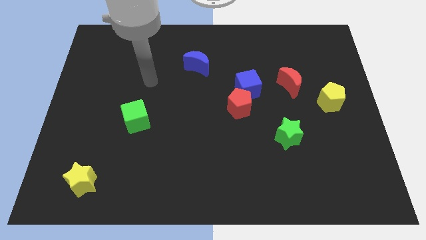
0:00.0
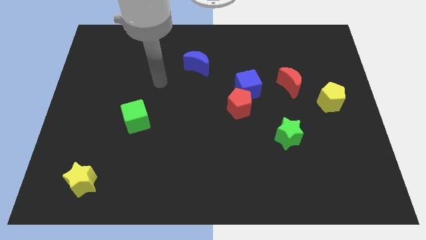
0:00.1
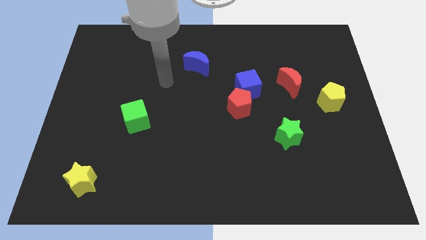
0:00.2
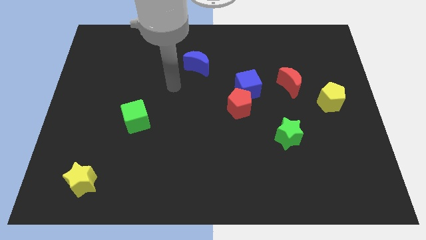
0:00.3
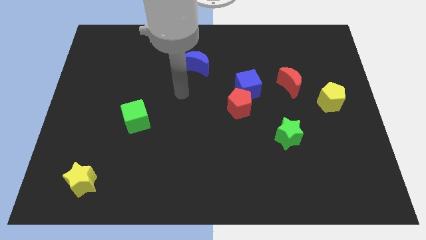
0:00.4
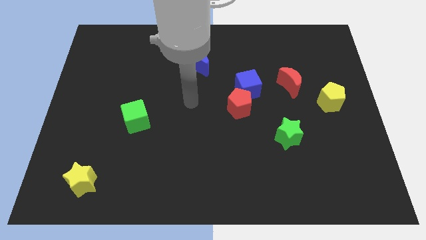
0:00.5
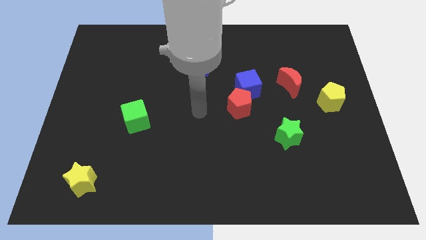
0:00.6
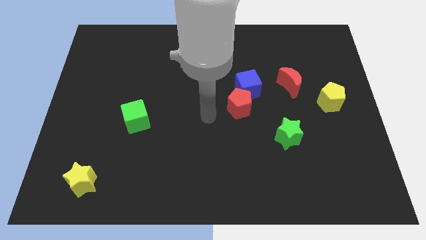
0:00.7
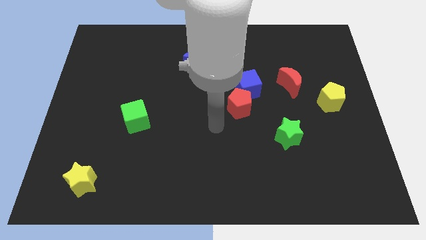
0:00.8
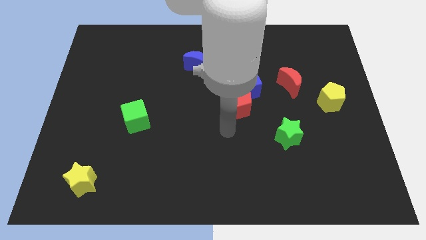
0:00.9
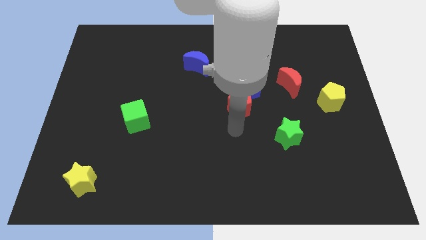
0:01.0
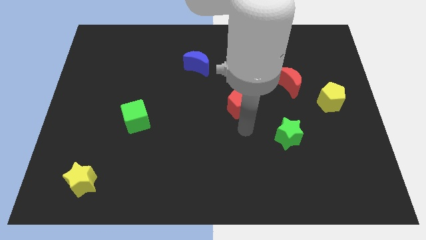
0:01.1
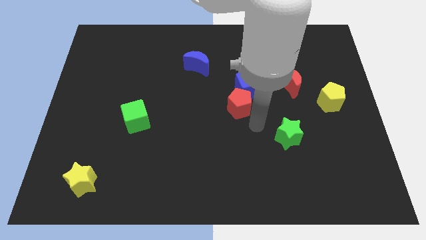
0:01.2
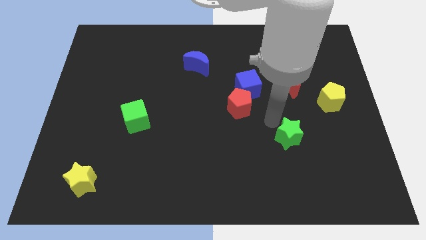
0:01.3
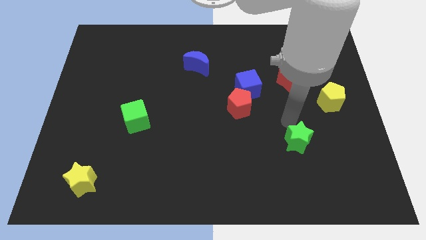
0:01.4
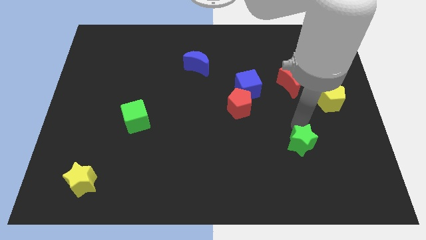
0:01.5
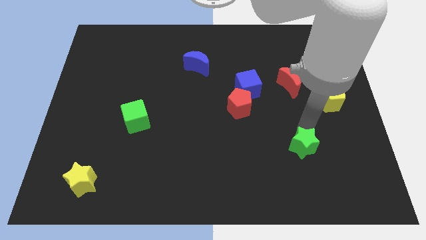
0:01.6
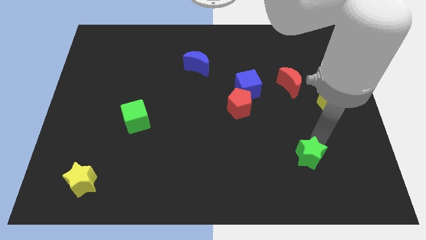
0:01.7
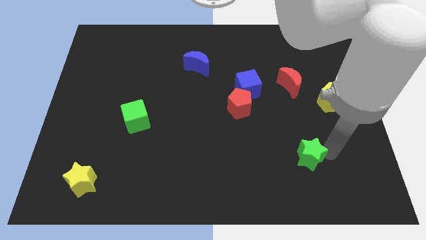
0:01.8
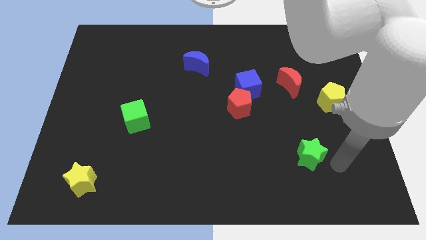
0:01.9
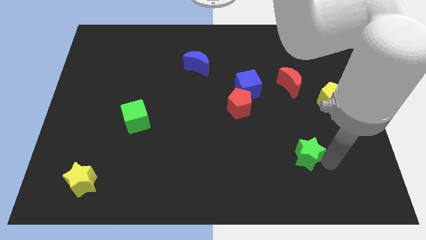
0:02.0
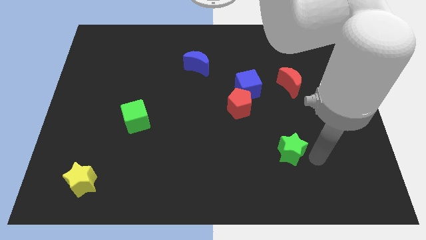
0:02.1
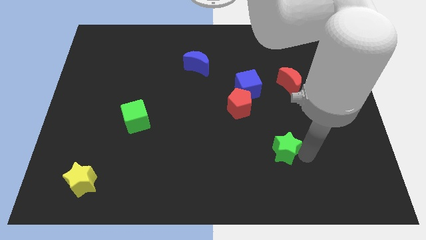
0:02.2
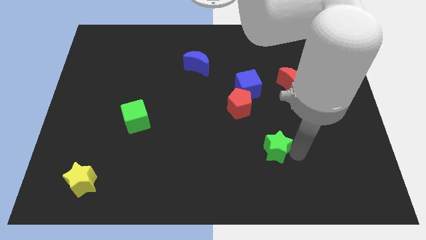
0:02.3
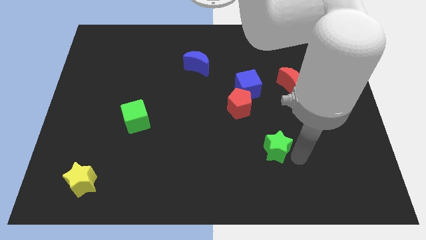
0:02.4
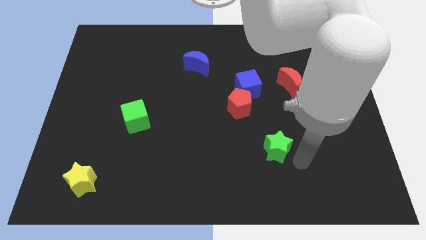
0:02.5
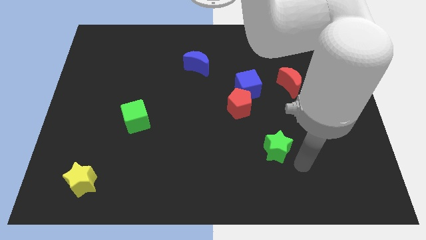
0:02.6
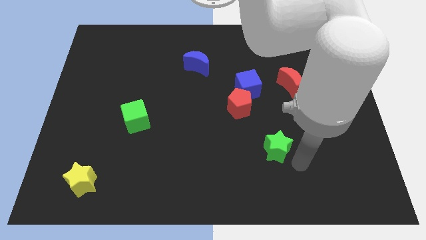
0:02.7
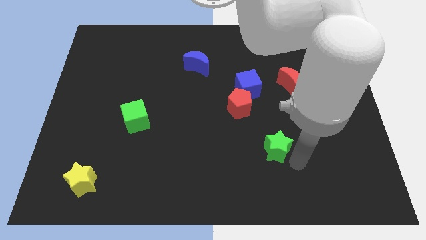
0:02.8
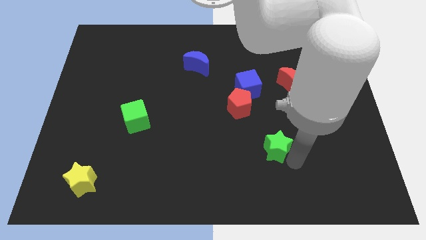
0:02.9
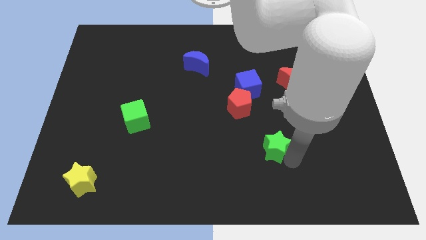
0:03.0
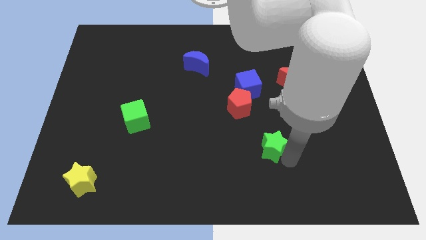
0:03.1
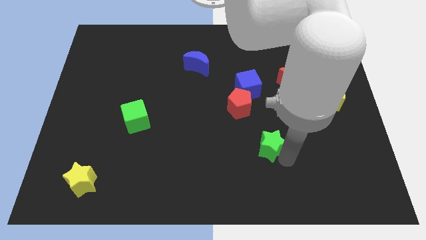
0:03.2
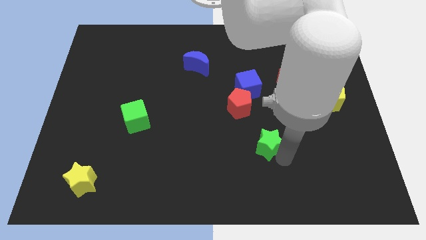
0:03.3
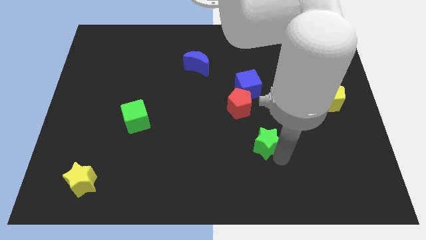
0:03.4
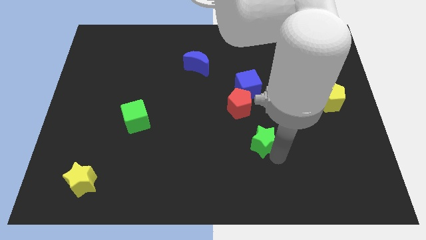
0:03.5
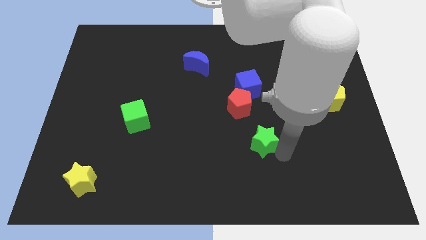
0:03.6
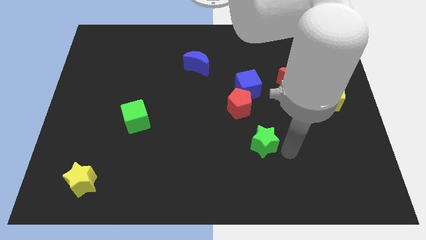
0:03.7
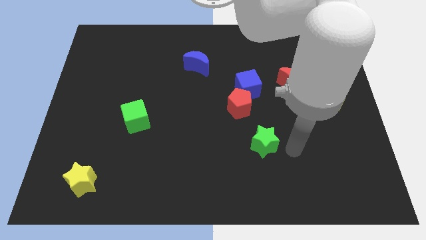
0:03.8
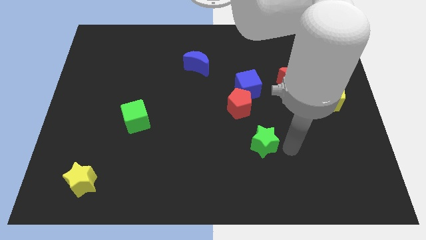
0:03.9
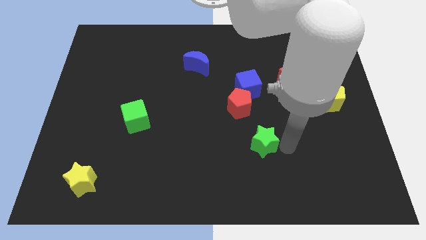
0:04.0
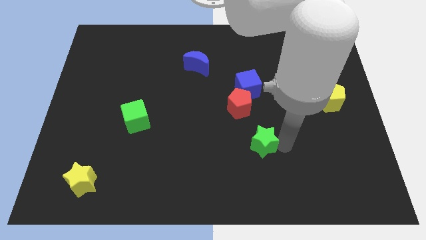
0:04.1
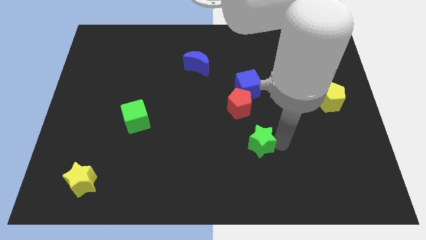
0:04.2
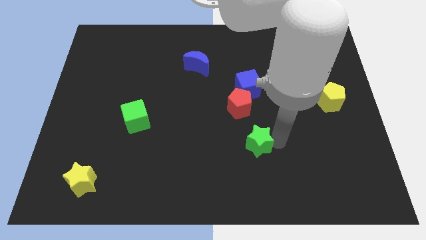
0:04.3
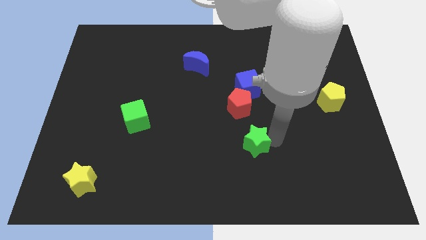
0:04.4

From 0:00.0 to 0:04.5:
slide the green star a little to the left

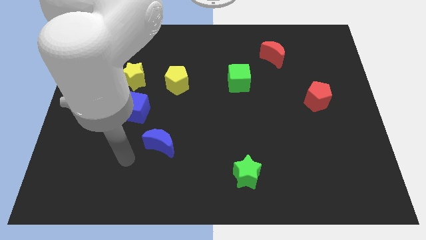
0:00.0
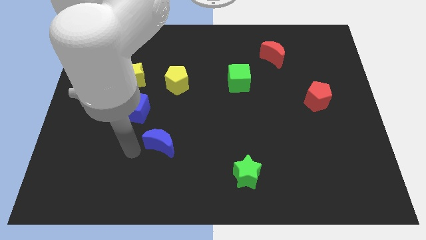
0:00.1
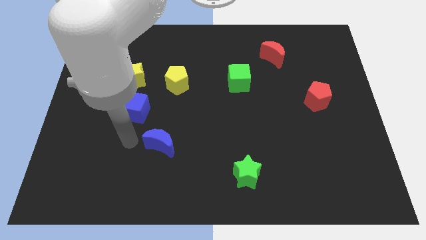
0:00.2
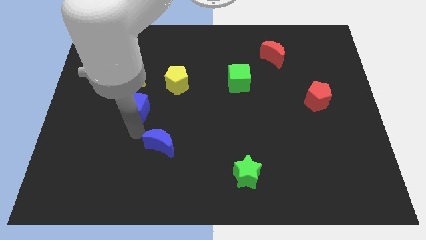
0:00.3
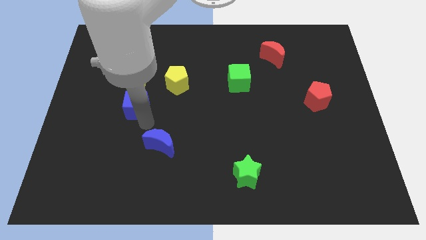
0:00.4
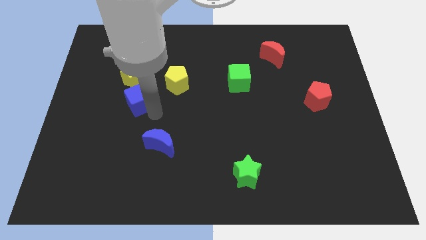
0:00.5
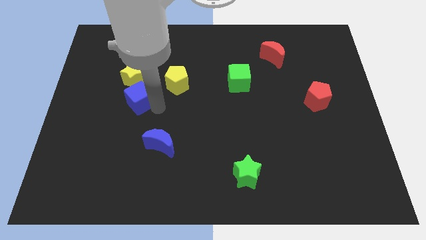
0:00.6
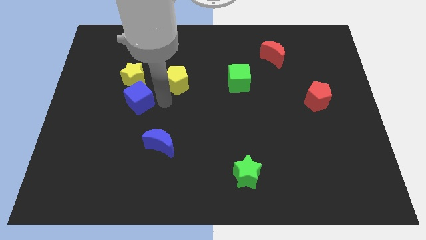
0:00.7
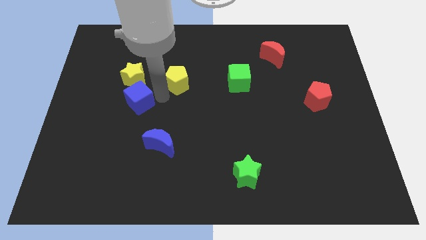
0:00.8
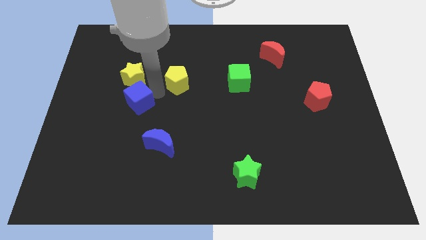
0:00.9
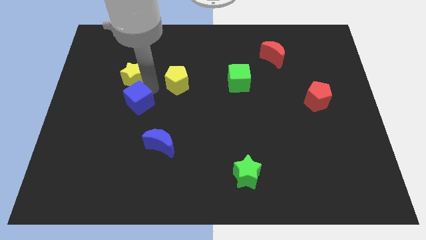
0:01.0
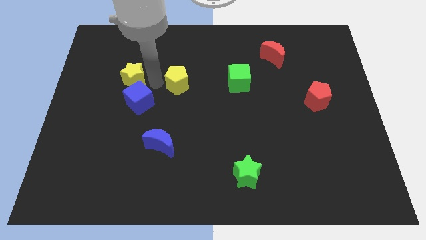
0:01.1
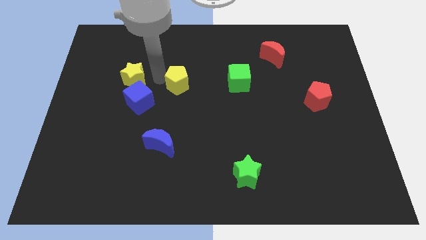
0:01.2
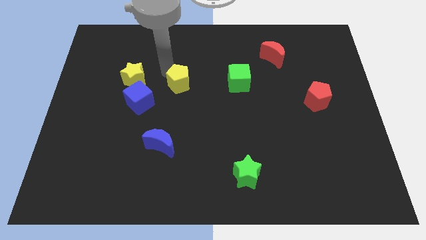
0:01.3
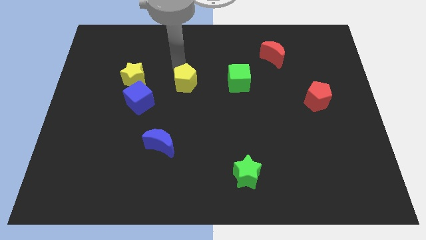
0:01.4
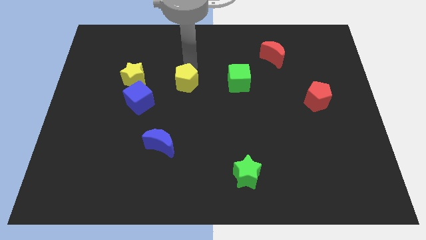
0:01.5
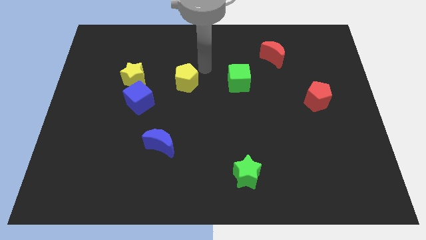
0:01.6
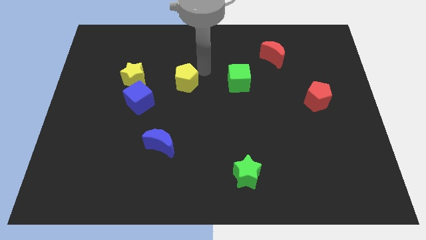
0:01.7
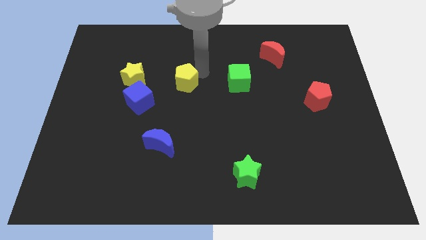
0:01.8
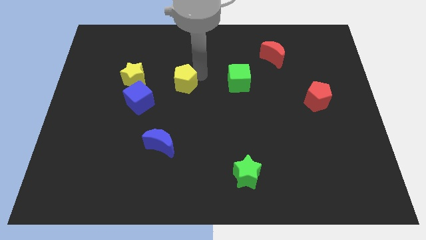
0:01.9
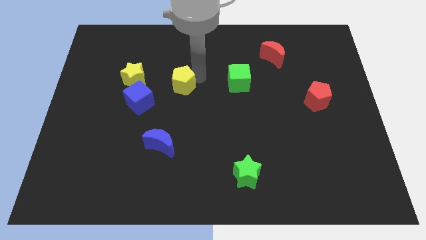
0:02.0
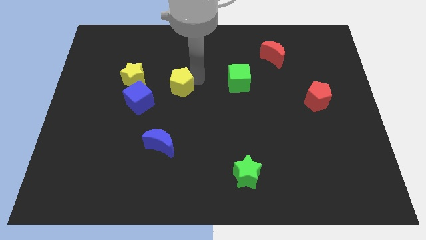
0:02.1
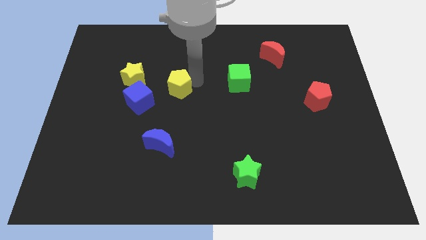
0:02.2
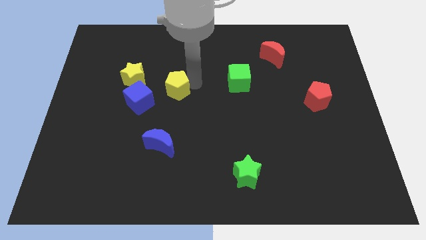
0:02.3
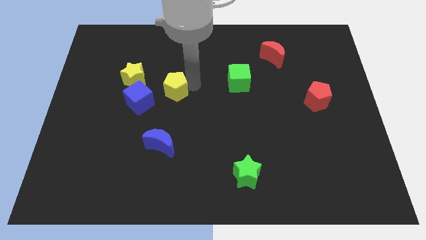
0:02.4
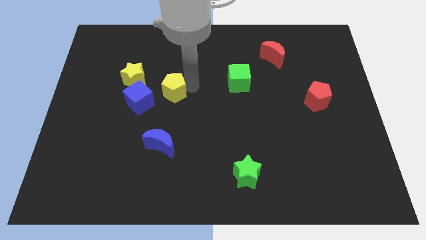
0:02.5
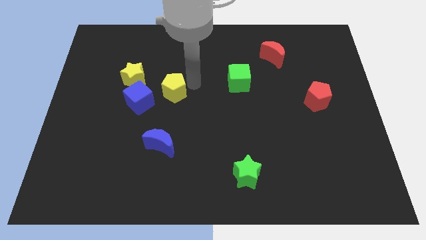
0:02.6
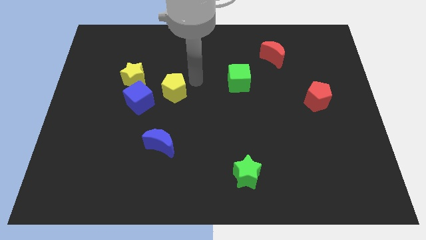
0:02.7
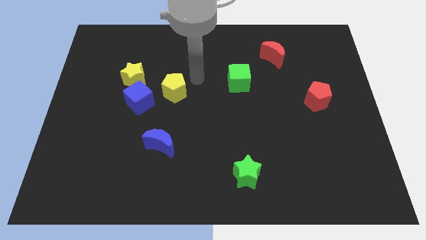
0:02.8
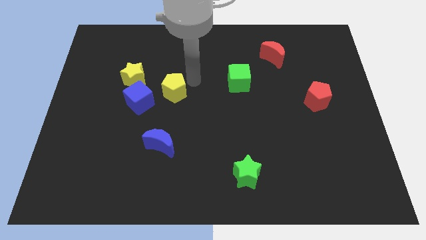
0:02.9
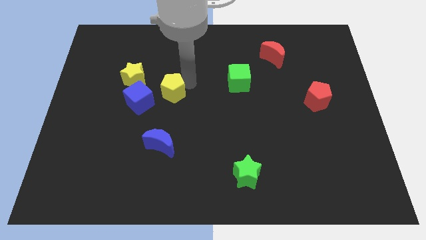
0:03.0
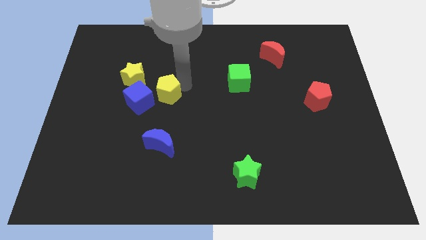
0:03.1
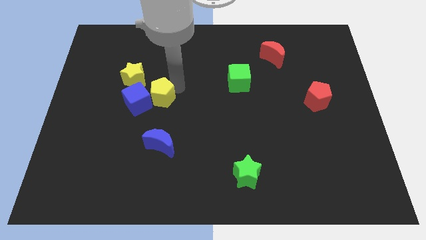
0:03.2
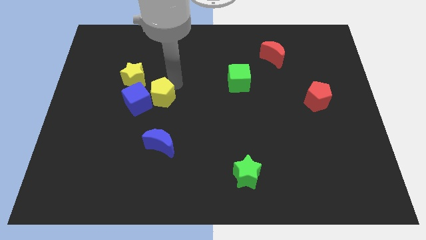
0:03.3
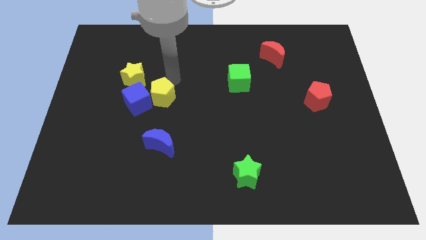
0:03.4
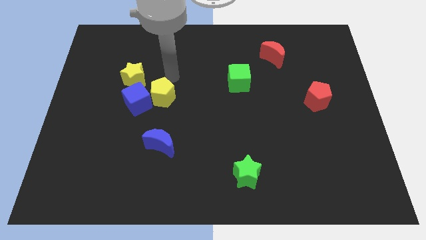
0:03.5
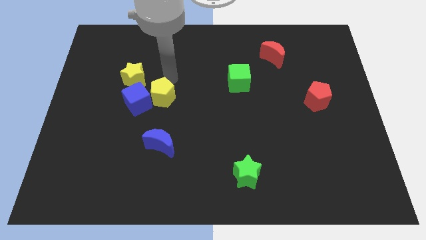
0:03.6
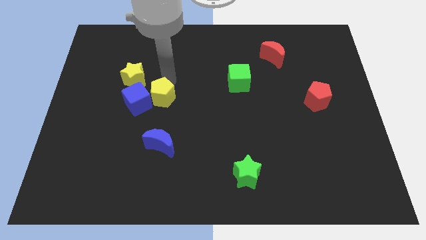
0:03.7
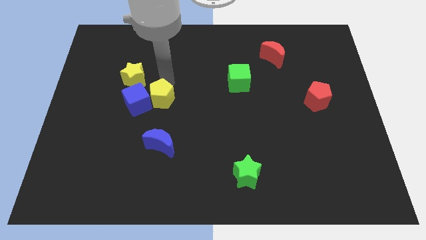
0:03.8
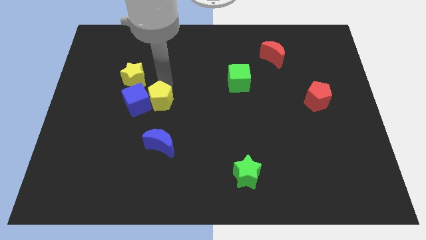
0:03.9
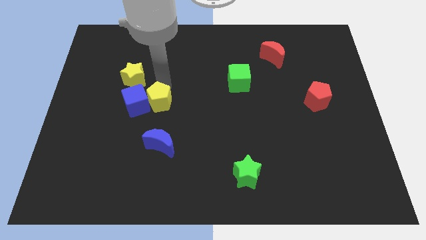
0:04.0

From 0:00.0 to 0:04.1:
slide the yellow pentagon somewhat downwards and then left
